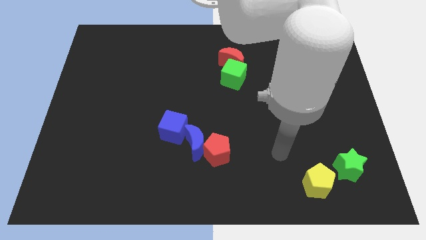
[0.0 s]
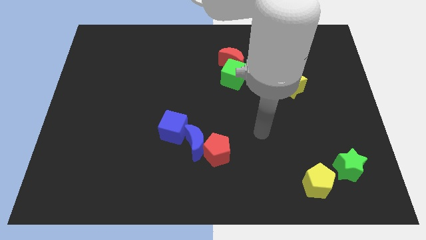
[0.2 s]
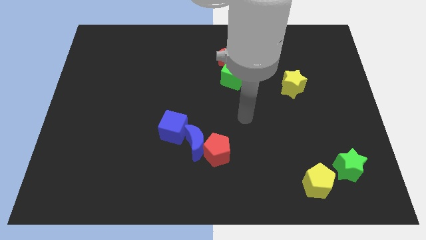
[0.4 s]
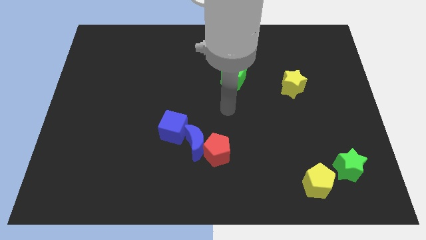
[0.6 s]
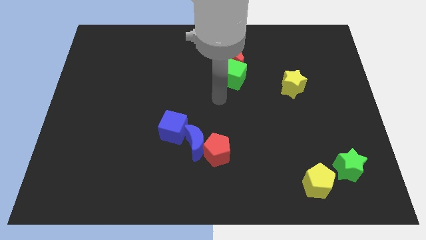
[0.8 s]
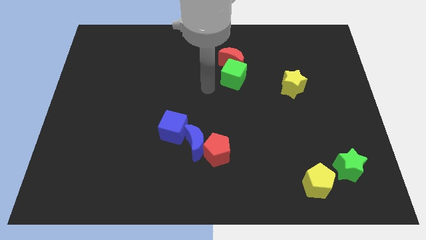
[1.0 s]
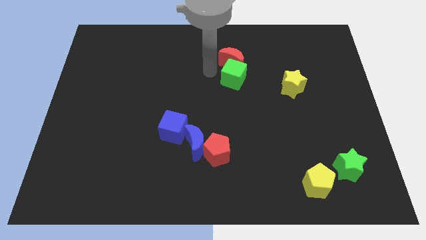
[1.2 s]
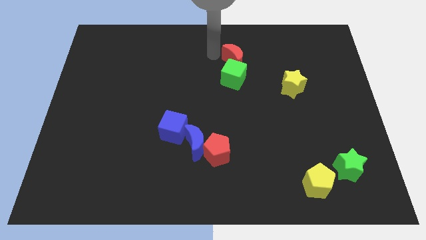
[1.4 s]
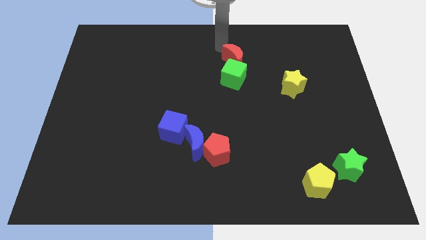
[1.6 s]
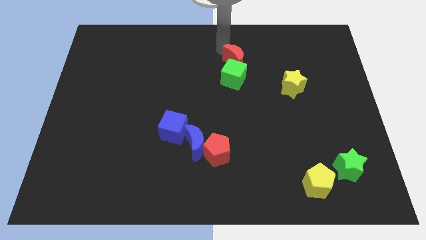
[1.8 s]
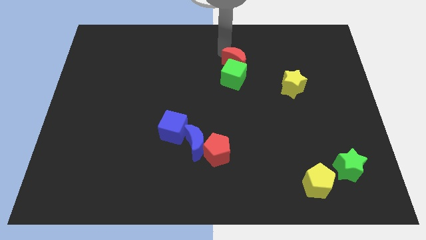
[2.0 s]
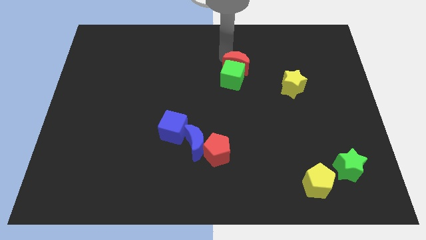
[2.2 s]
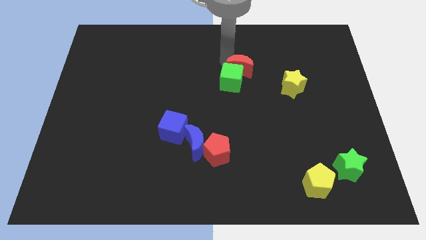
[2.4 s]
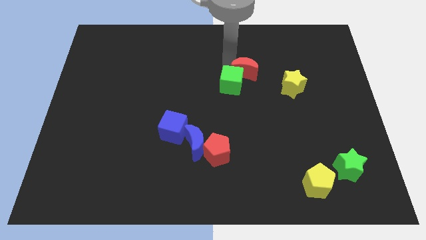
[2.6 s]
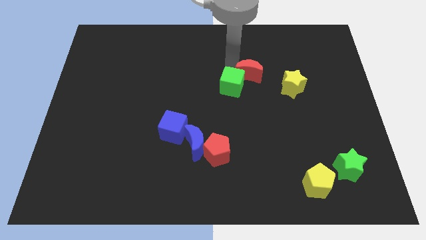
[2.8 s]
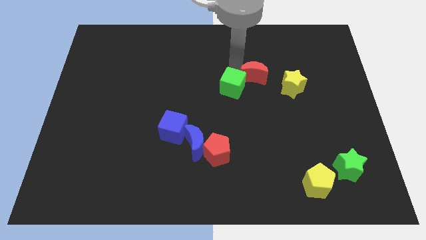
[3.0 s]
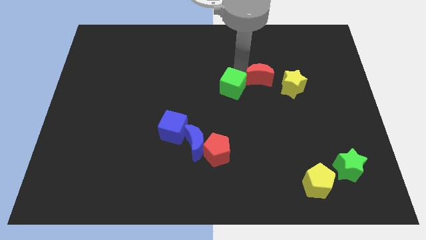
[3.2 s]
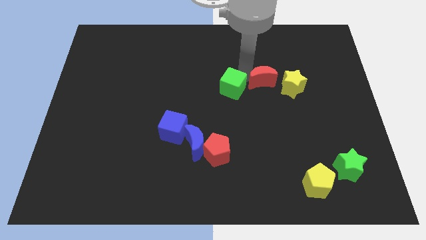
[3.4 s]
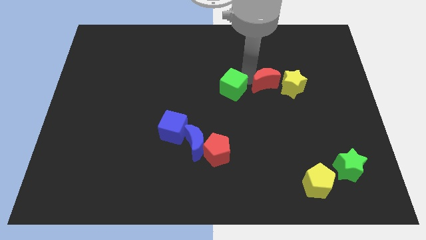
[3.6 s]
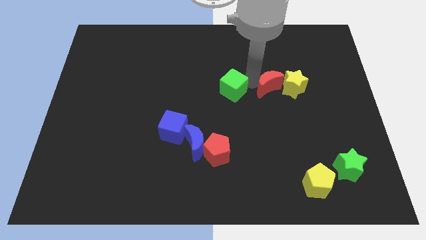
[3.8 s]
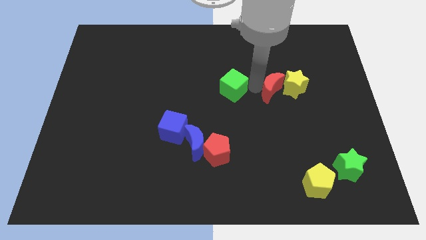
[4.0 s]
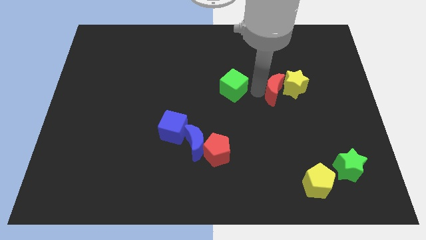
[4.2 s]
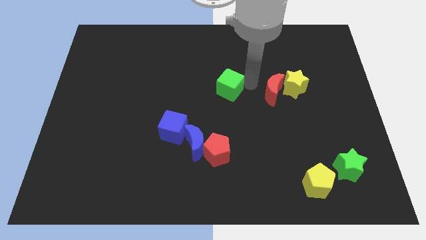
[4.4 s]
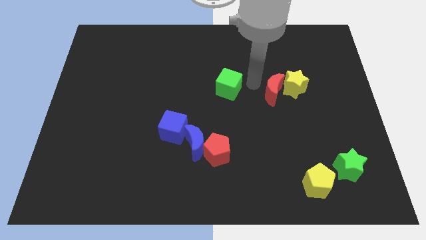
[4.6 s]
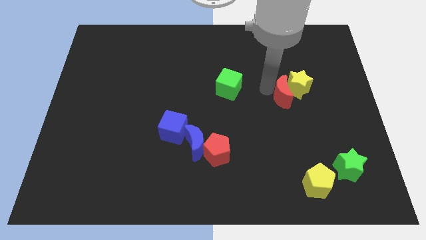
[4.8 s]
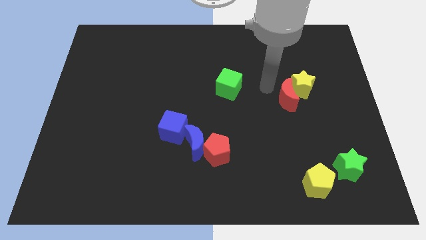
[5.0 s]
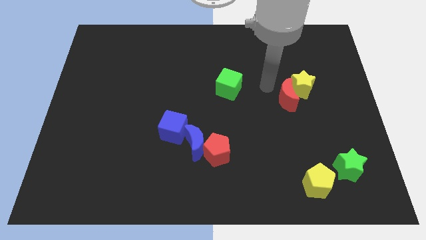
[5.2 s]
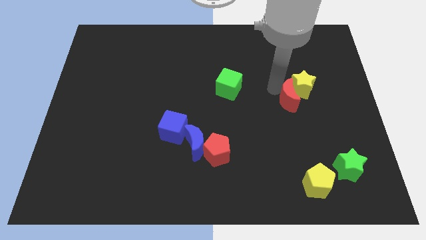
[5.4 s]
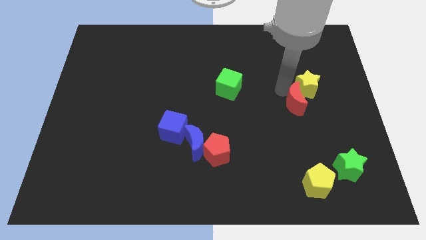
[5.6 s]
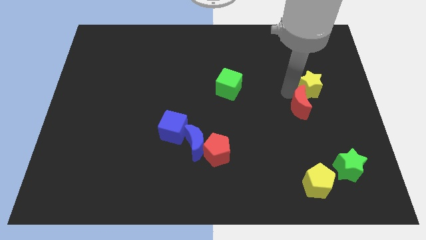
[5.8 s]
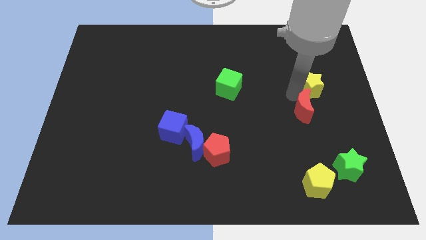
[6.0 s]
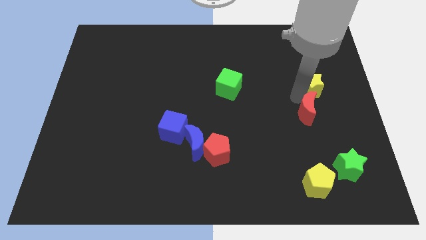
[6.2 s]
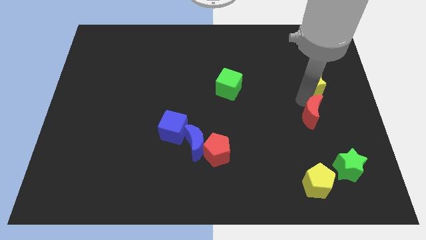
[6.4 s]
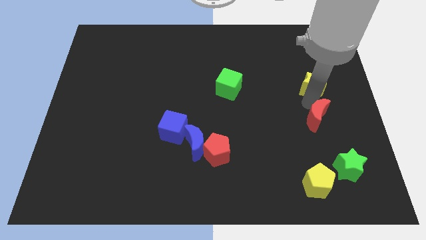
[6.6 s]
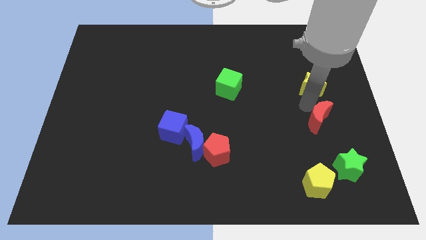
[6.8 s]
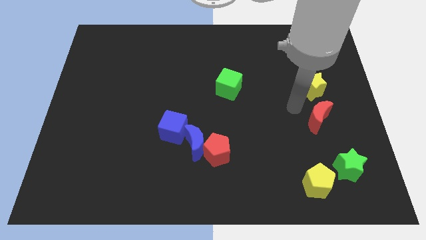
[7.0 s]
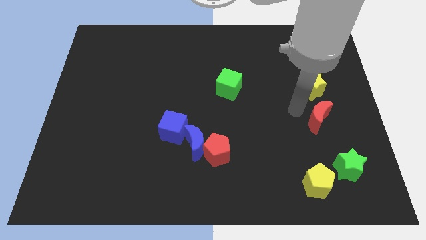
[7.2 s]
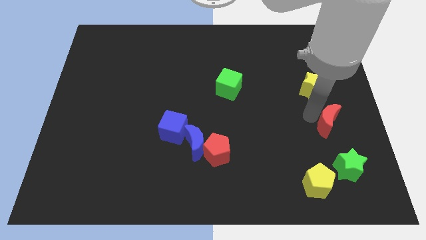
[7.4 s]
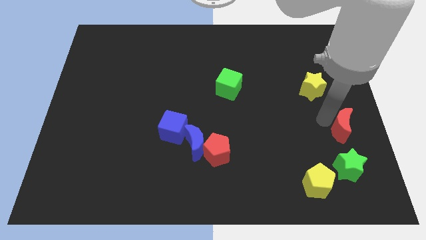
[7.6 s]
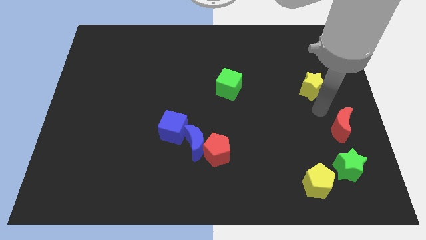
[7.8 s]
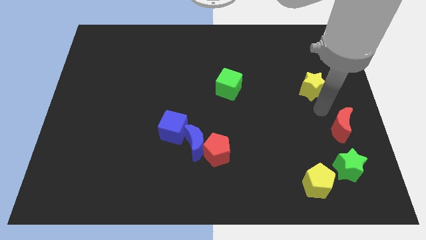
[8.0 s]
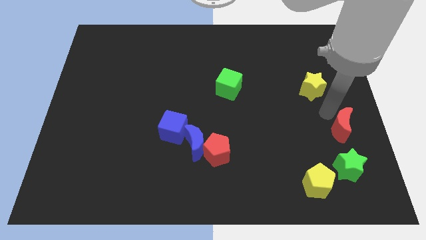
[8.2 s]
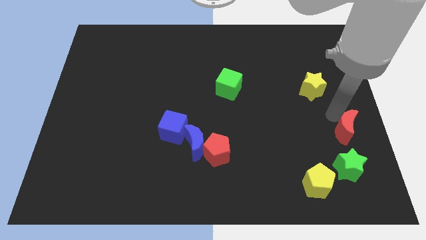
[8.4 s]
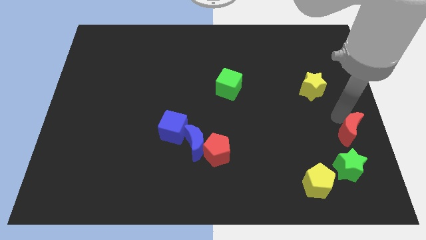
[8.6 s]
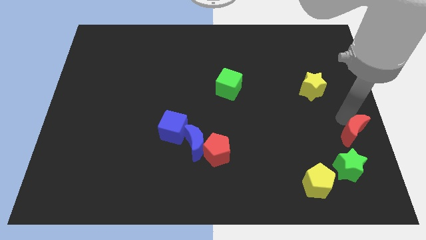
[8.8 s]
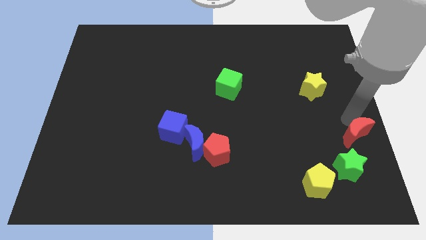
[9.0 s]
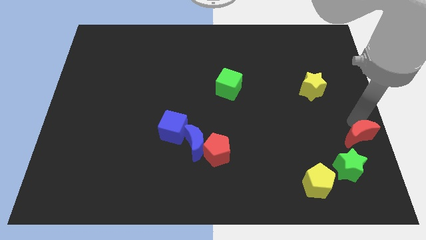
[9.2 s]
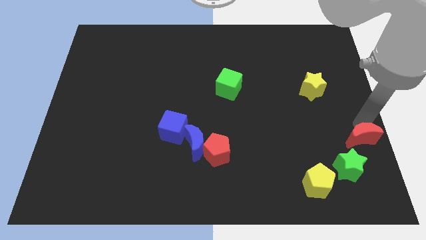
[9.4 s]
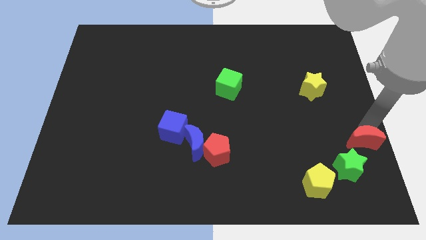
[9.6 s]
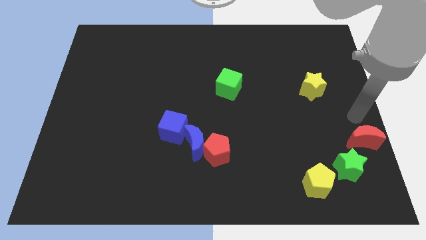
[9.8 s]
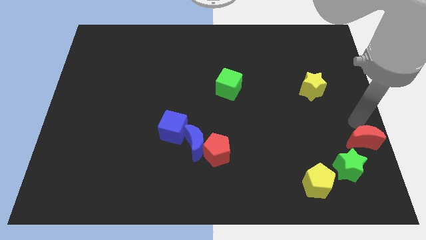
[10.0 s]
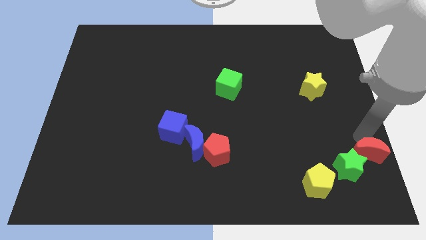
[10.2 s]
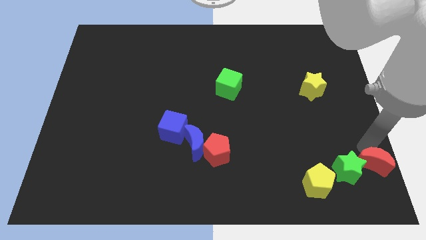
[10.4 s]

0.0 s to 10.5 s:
move the red moon to the bottom right

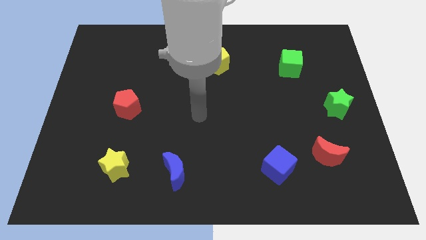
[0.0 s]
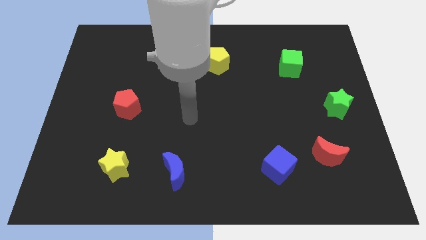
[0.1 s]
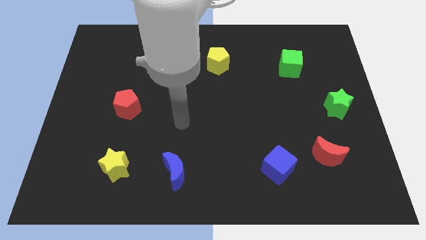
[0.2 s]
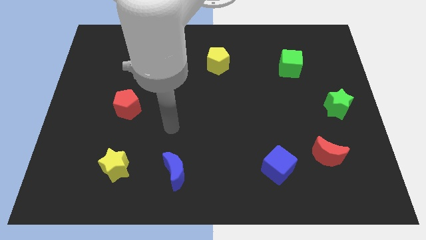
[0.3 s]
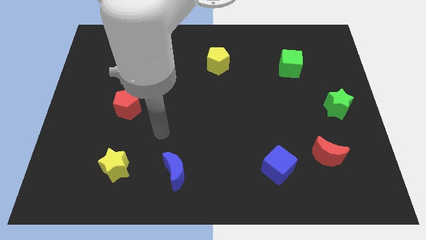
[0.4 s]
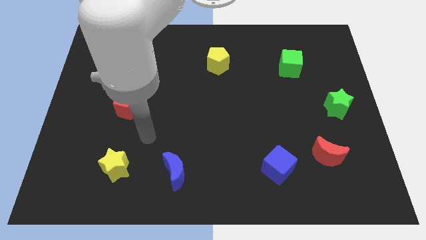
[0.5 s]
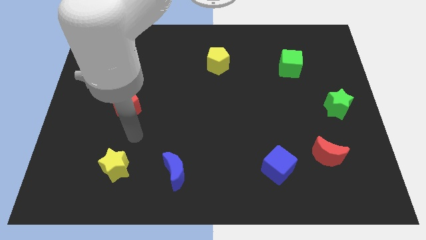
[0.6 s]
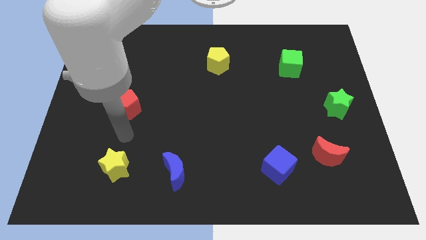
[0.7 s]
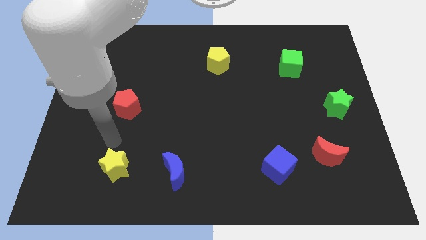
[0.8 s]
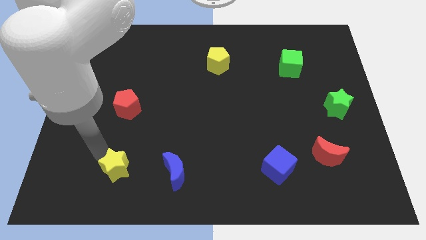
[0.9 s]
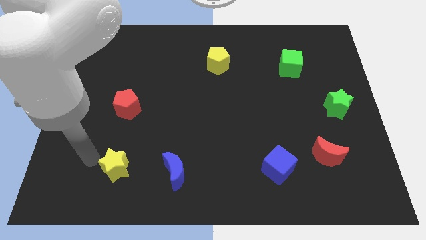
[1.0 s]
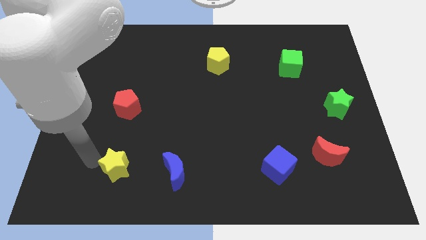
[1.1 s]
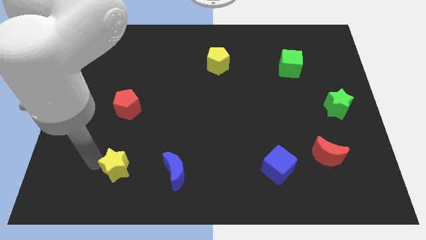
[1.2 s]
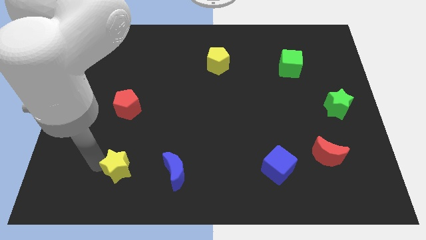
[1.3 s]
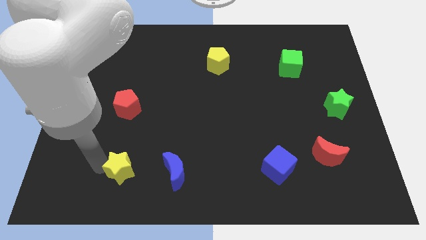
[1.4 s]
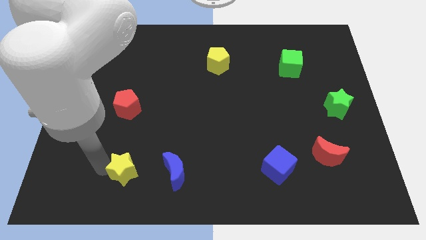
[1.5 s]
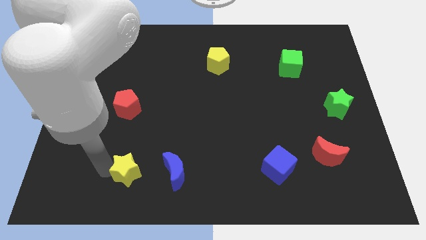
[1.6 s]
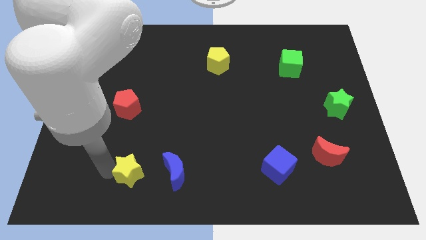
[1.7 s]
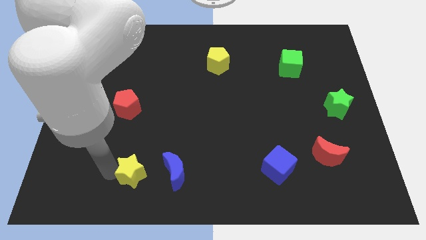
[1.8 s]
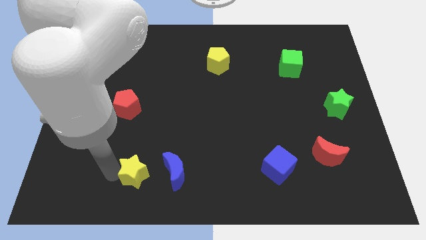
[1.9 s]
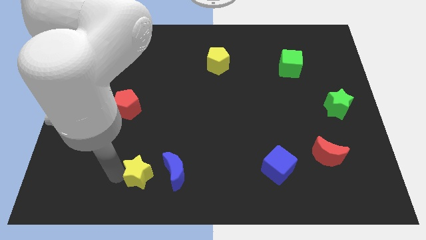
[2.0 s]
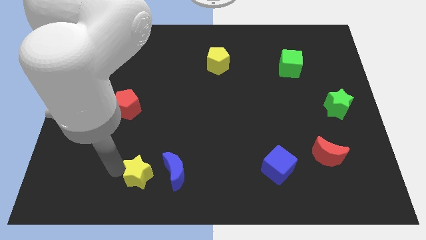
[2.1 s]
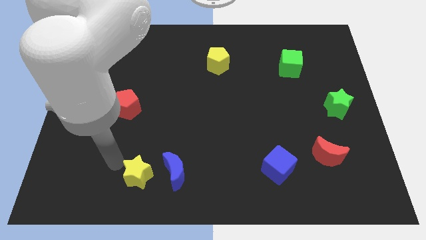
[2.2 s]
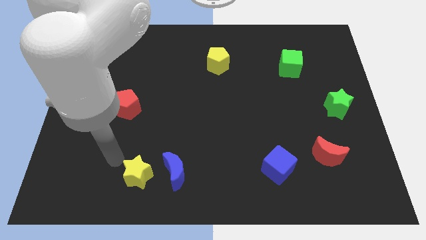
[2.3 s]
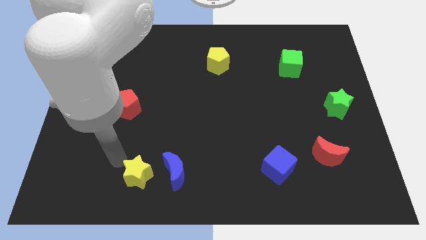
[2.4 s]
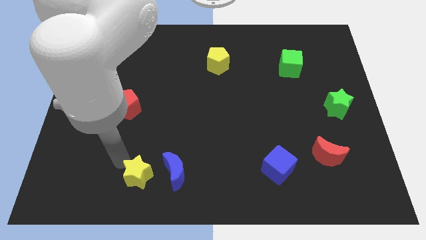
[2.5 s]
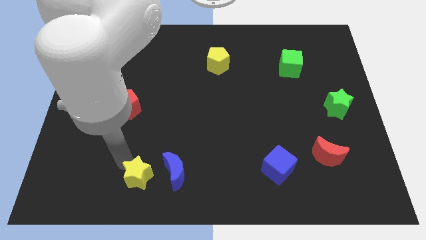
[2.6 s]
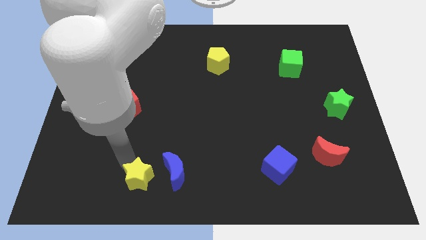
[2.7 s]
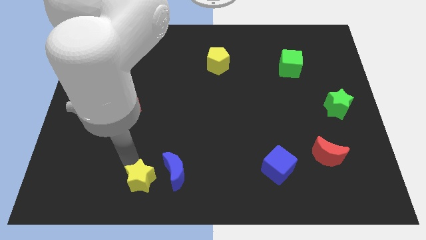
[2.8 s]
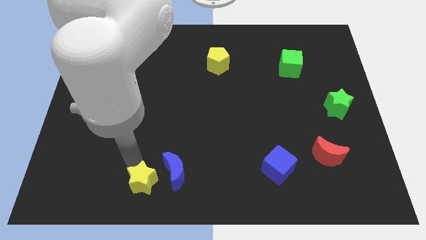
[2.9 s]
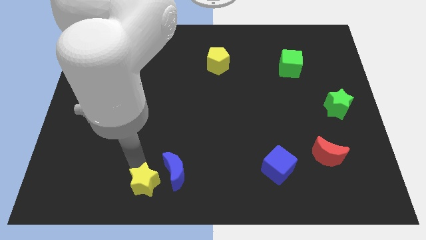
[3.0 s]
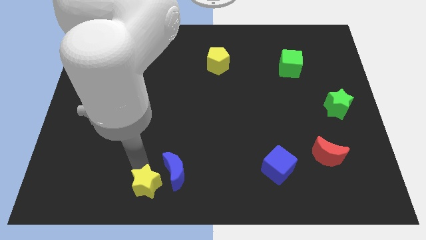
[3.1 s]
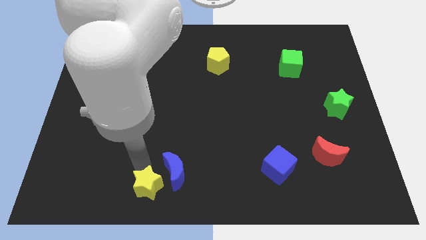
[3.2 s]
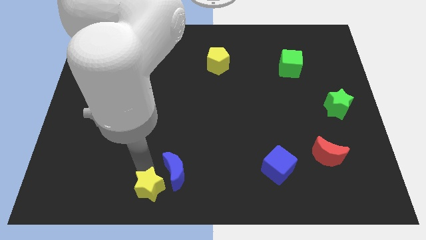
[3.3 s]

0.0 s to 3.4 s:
push the yellow star to the bottom side
